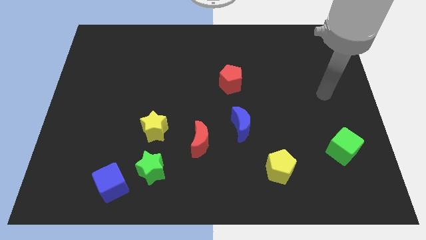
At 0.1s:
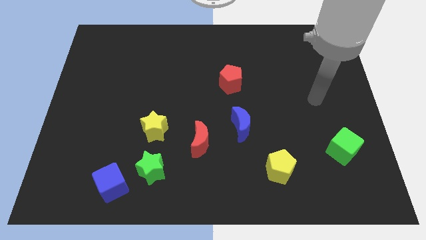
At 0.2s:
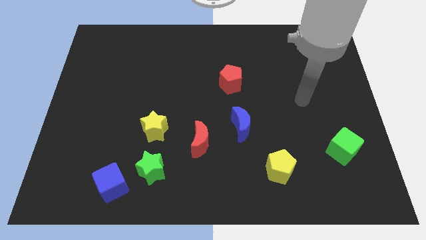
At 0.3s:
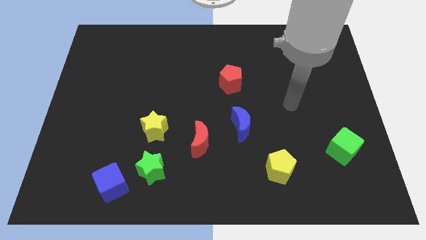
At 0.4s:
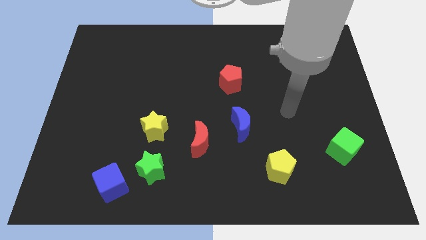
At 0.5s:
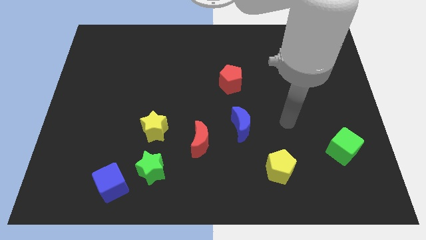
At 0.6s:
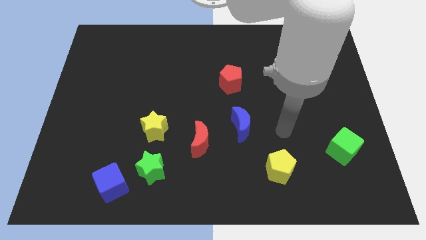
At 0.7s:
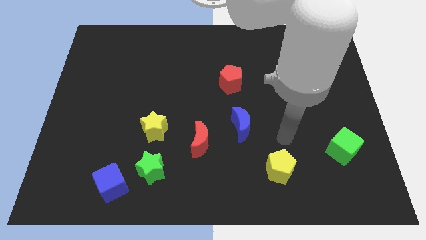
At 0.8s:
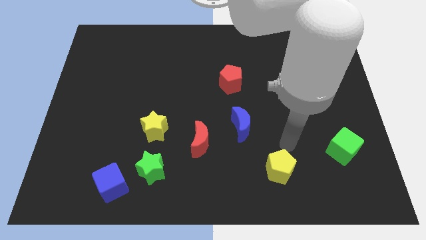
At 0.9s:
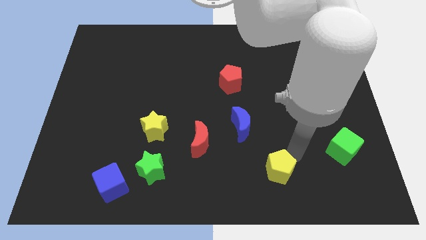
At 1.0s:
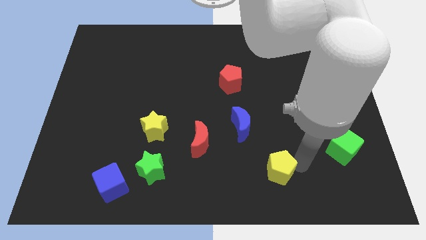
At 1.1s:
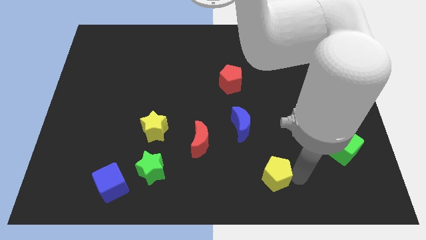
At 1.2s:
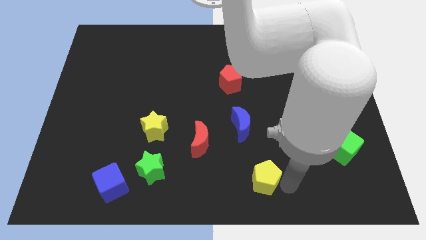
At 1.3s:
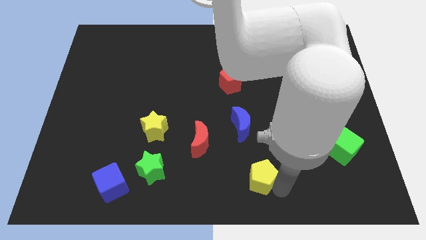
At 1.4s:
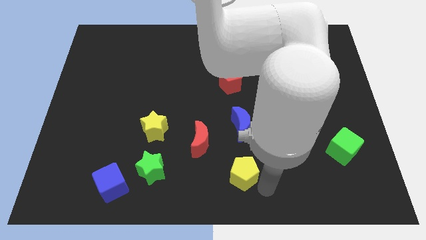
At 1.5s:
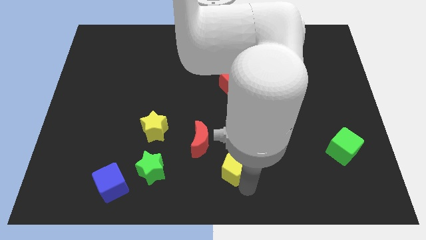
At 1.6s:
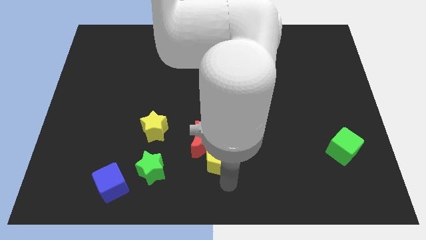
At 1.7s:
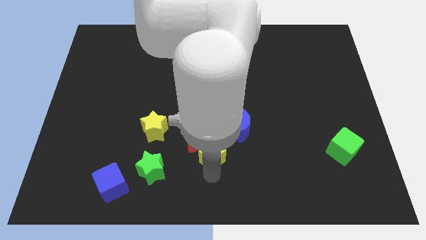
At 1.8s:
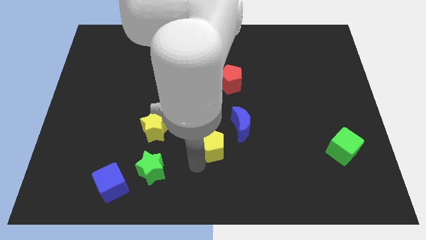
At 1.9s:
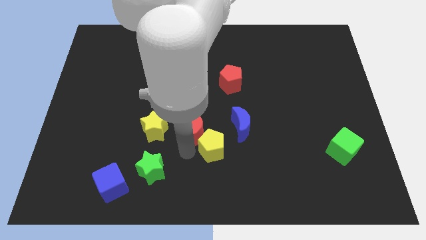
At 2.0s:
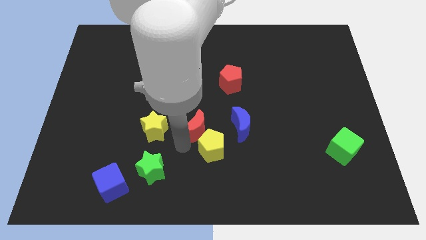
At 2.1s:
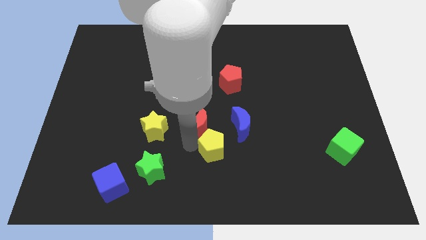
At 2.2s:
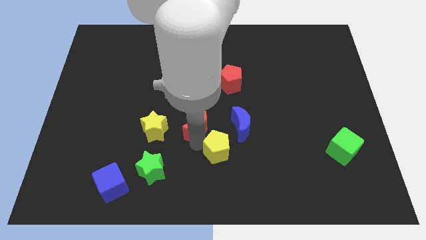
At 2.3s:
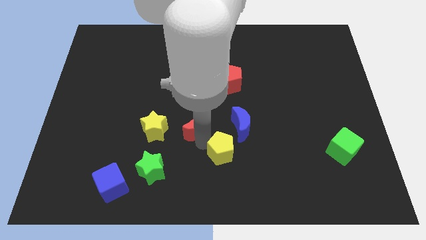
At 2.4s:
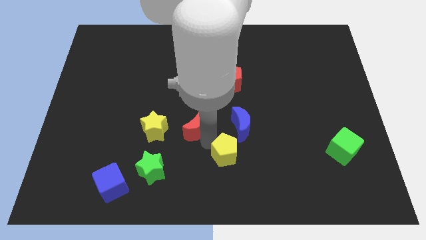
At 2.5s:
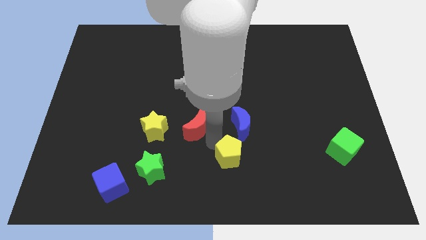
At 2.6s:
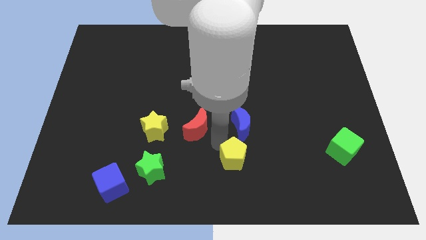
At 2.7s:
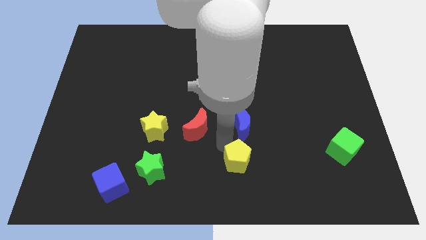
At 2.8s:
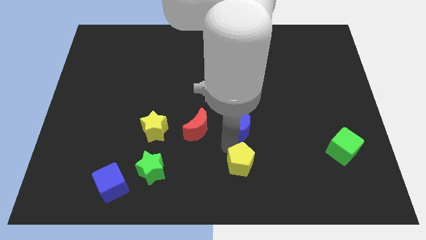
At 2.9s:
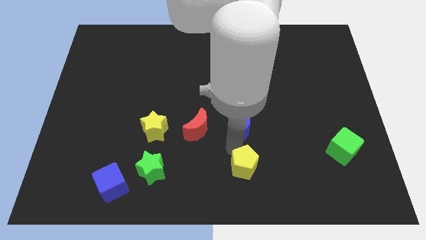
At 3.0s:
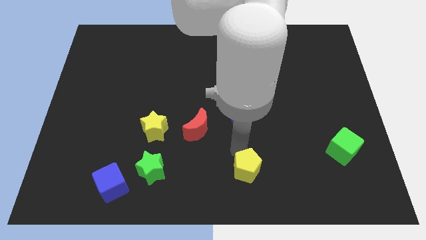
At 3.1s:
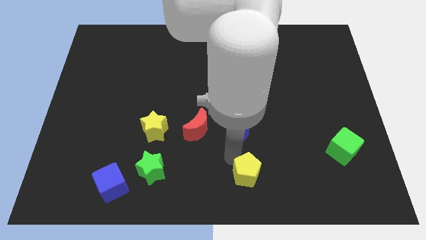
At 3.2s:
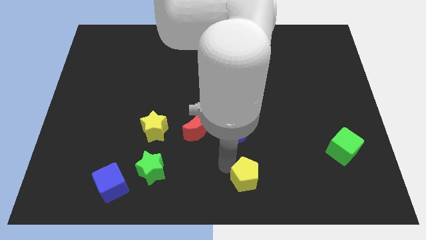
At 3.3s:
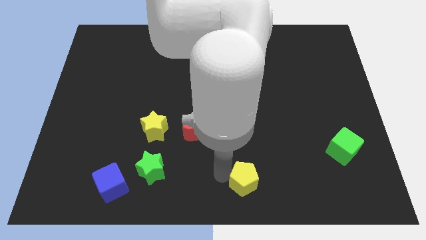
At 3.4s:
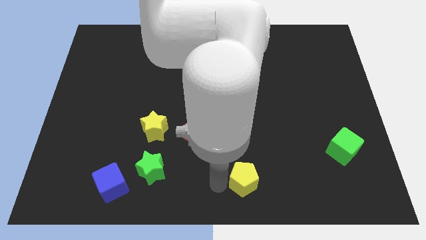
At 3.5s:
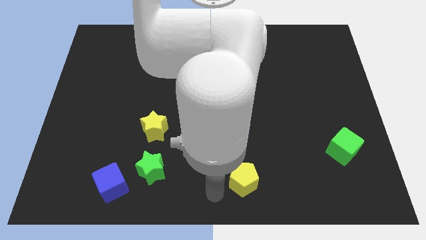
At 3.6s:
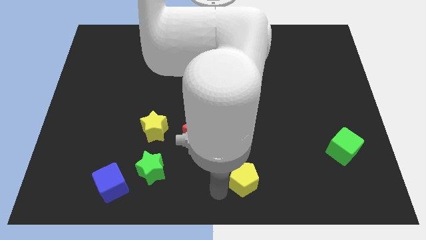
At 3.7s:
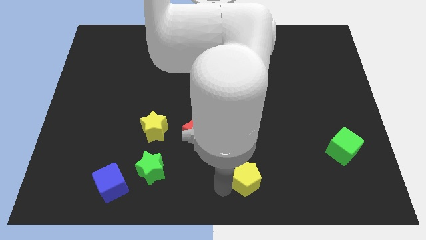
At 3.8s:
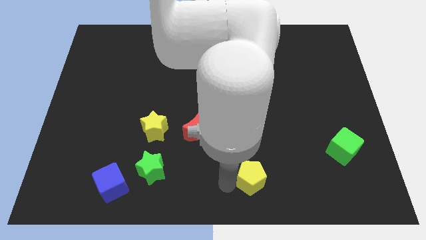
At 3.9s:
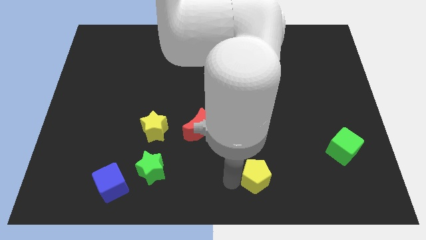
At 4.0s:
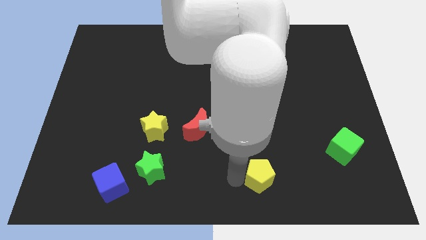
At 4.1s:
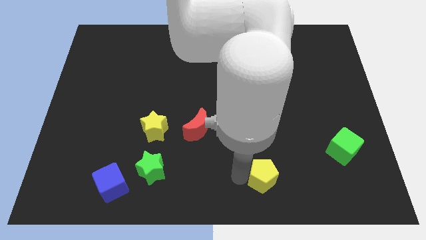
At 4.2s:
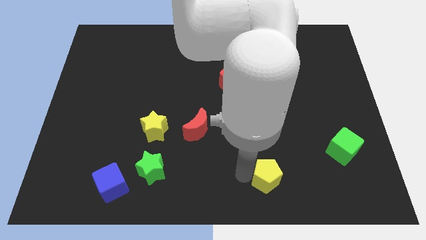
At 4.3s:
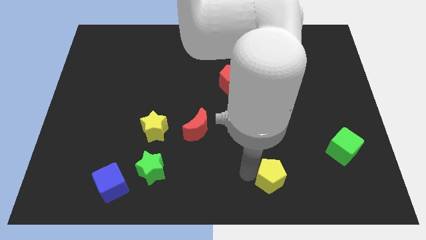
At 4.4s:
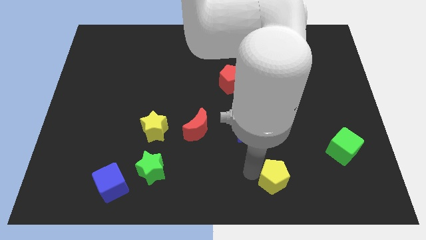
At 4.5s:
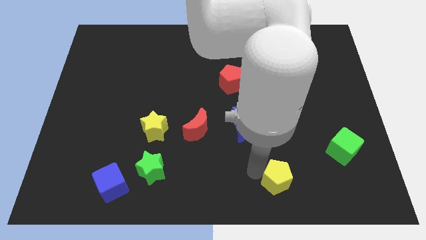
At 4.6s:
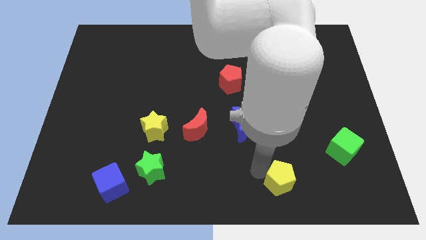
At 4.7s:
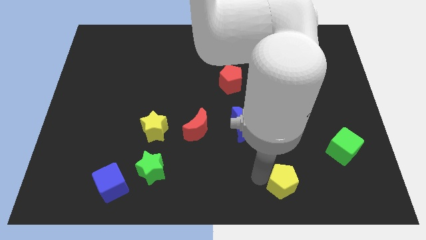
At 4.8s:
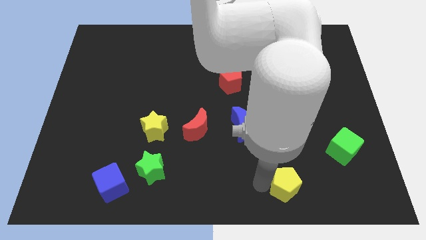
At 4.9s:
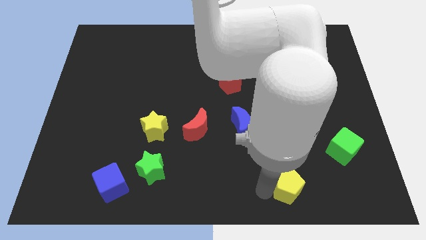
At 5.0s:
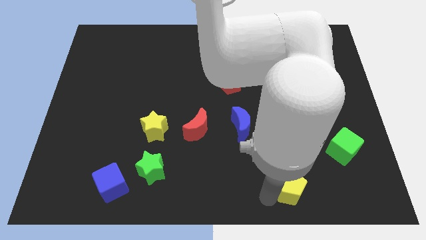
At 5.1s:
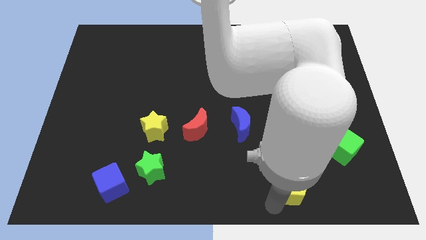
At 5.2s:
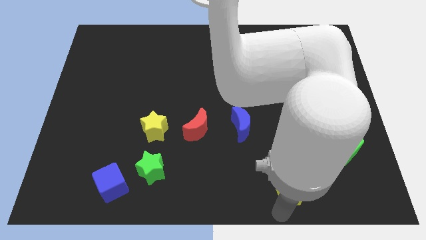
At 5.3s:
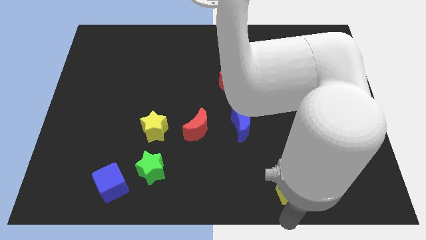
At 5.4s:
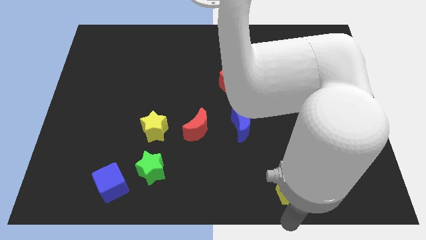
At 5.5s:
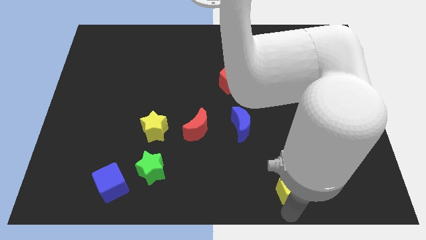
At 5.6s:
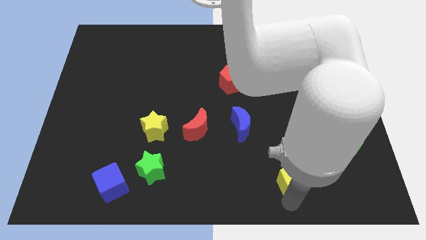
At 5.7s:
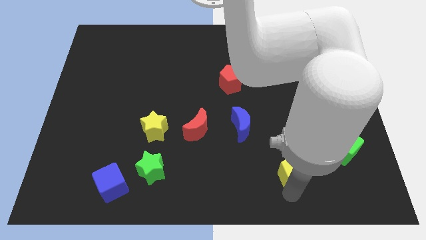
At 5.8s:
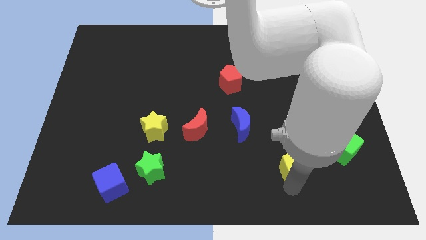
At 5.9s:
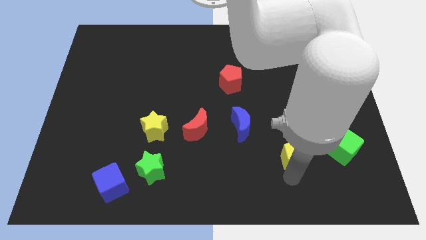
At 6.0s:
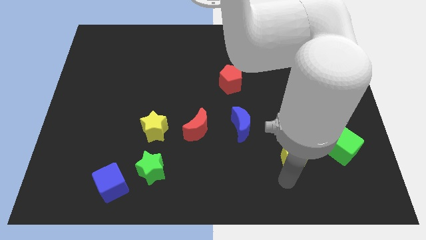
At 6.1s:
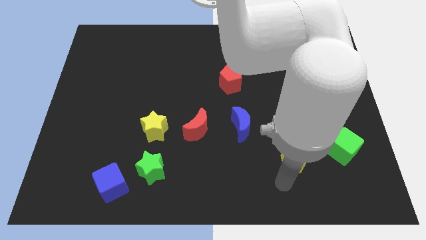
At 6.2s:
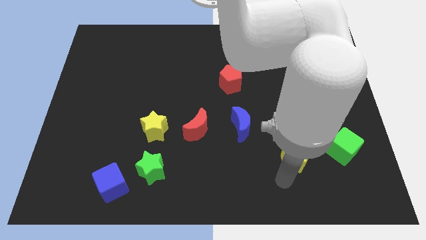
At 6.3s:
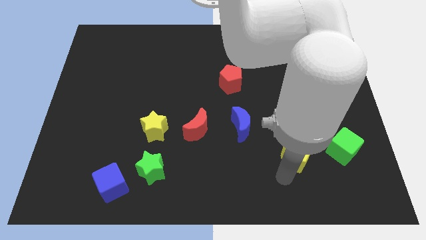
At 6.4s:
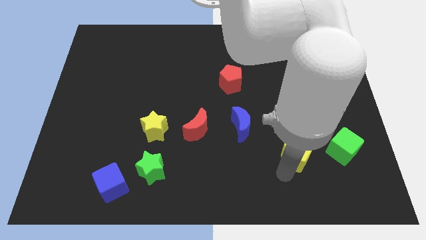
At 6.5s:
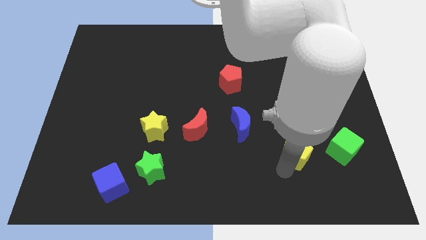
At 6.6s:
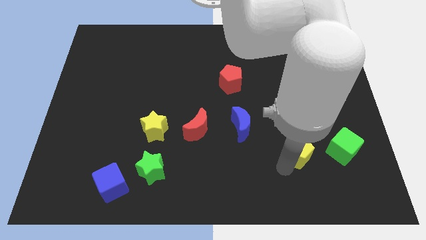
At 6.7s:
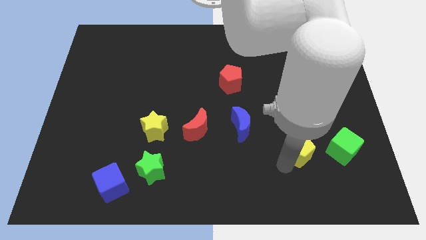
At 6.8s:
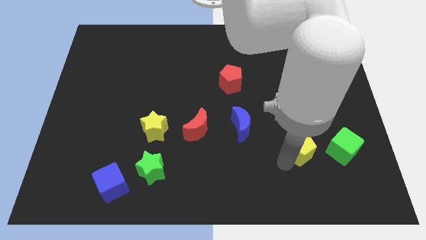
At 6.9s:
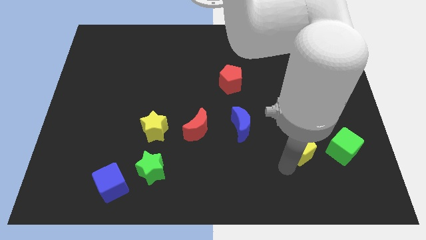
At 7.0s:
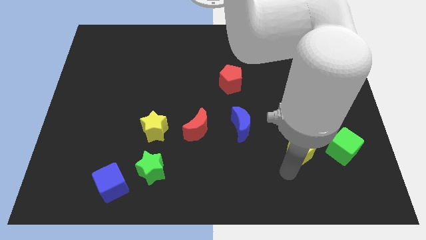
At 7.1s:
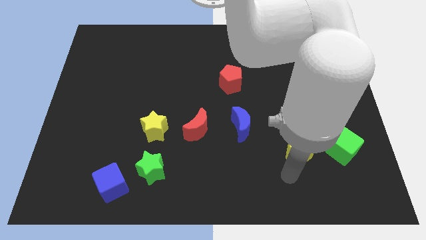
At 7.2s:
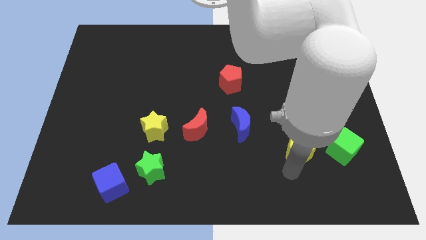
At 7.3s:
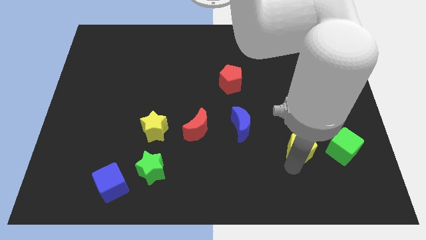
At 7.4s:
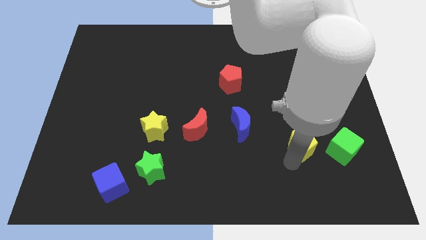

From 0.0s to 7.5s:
slide the yellow pentagon diagonally upwards and right a bit

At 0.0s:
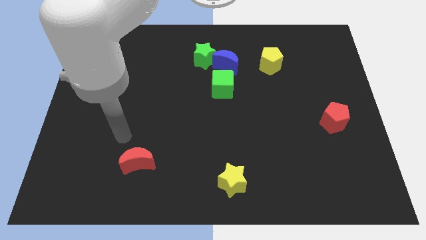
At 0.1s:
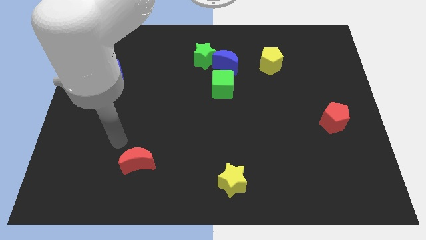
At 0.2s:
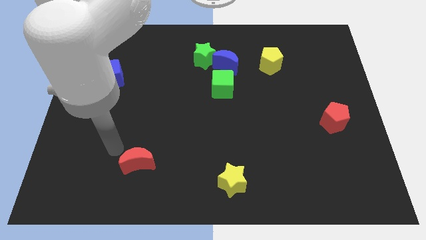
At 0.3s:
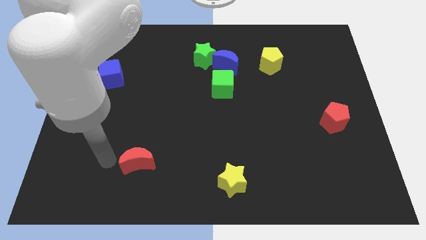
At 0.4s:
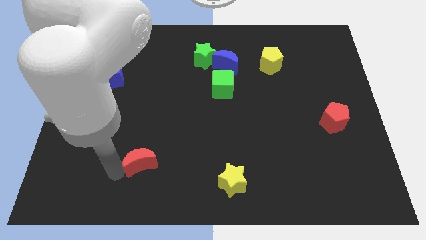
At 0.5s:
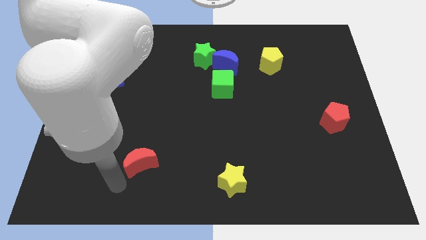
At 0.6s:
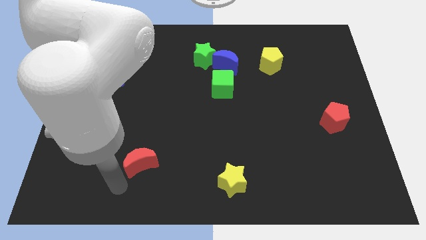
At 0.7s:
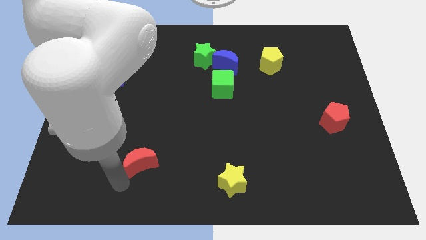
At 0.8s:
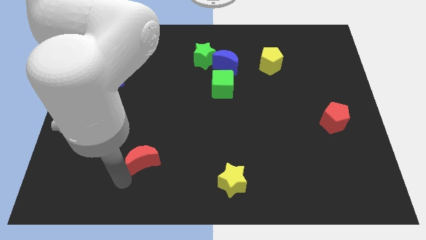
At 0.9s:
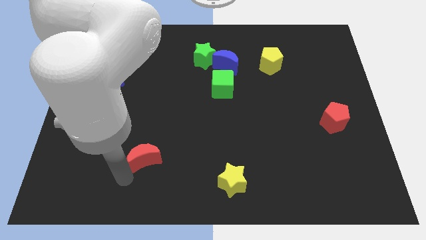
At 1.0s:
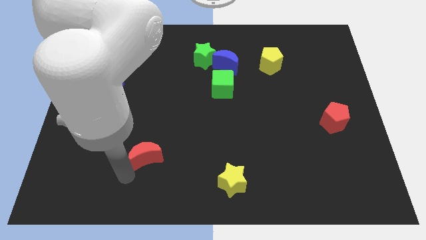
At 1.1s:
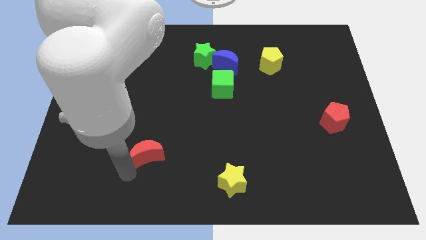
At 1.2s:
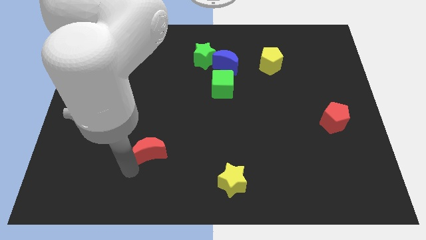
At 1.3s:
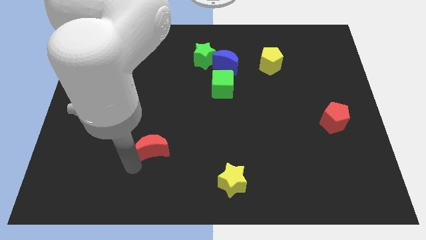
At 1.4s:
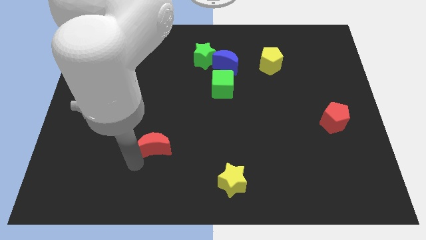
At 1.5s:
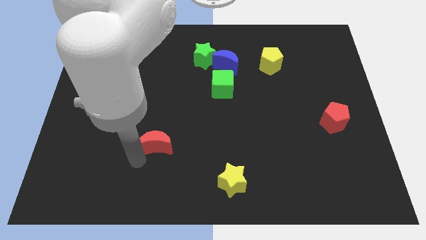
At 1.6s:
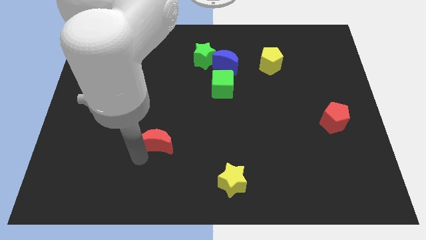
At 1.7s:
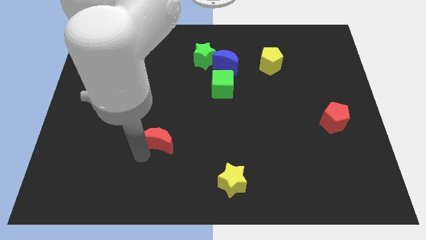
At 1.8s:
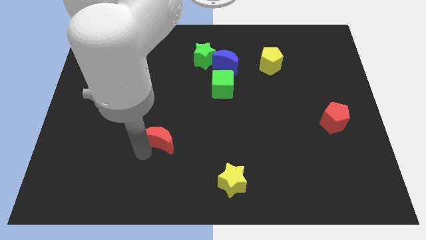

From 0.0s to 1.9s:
move the red moon somewhat upwards and right
